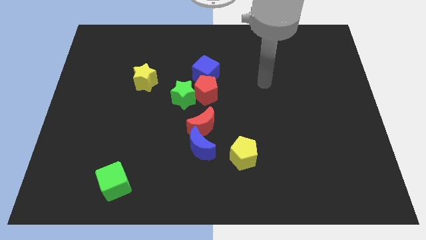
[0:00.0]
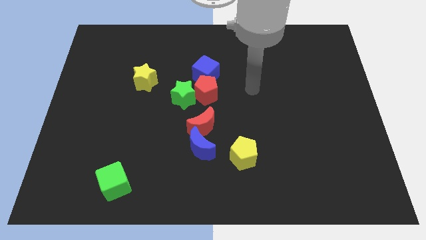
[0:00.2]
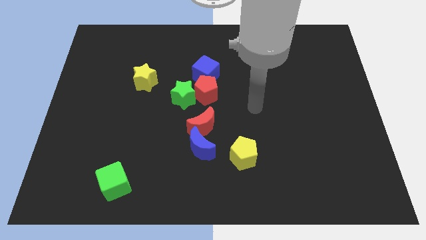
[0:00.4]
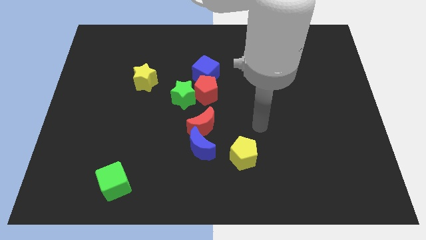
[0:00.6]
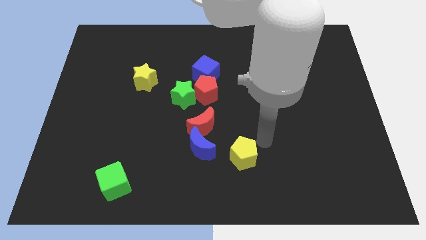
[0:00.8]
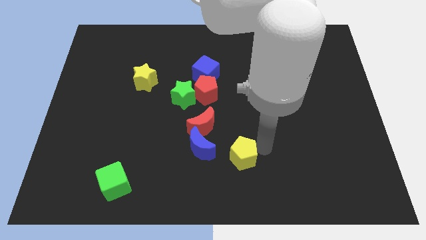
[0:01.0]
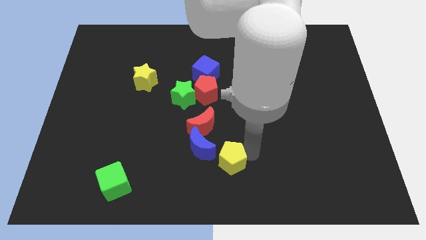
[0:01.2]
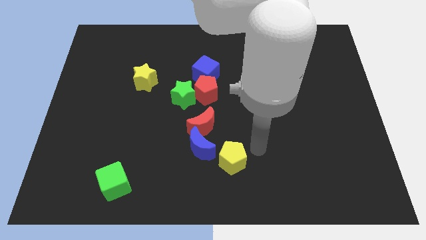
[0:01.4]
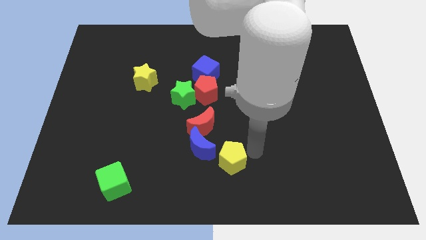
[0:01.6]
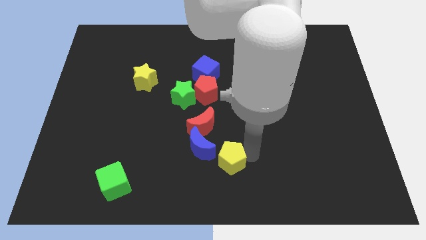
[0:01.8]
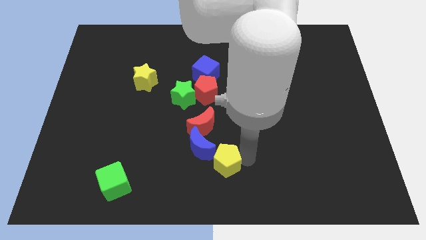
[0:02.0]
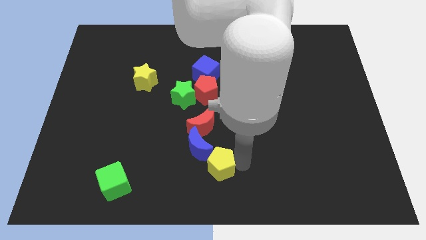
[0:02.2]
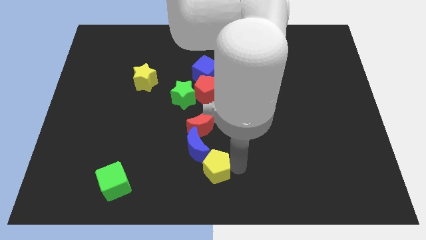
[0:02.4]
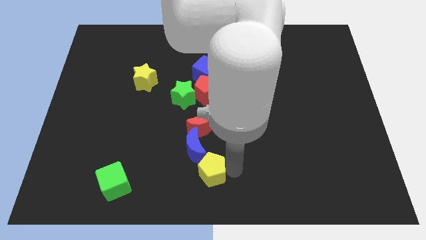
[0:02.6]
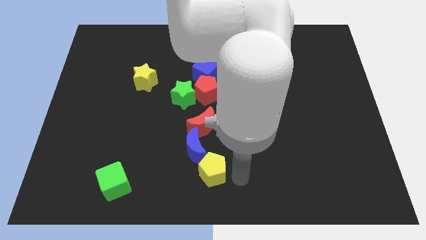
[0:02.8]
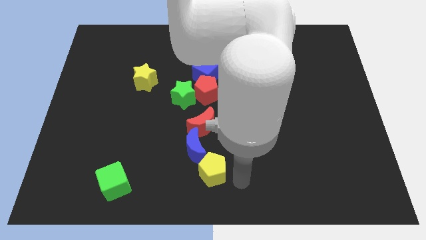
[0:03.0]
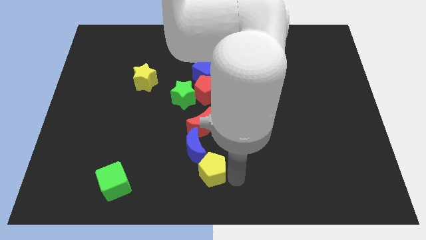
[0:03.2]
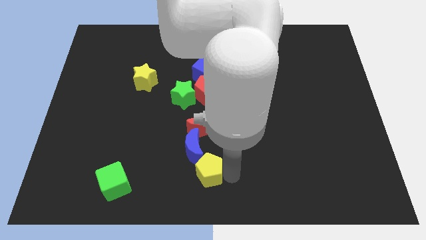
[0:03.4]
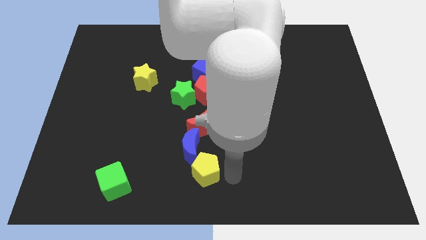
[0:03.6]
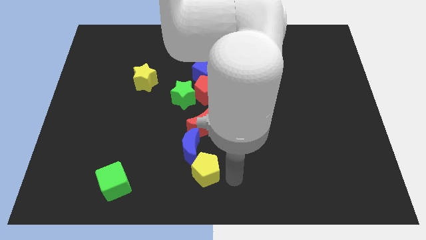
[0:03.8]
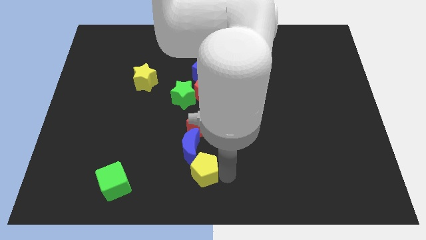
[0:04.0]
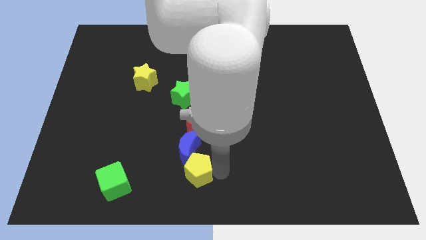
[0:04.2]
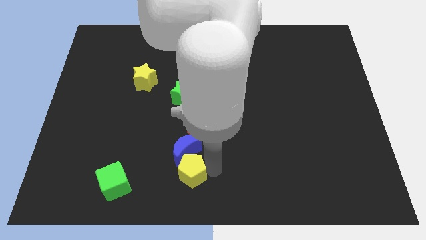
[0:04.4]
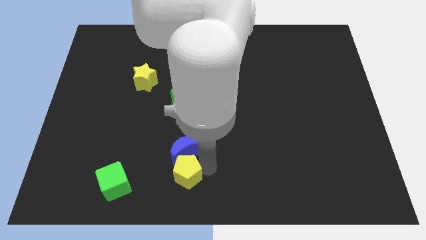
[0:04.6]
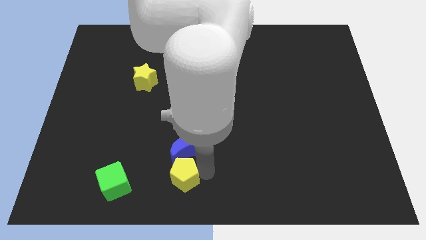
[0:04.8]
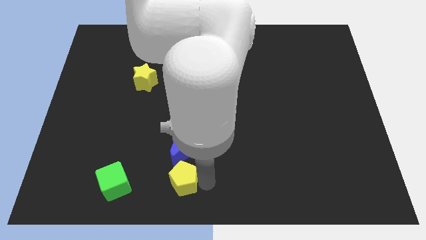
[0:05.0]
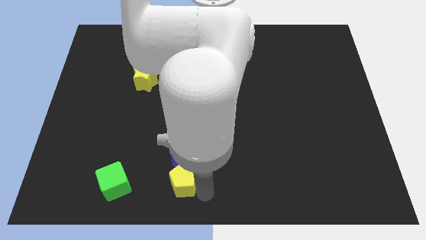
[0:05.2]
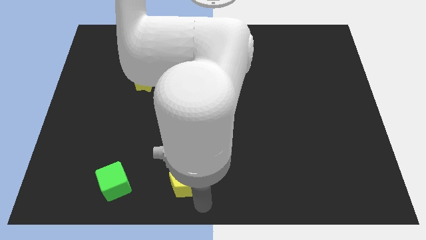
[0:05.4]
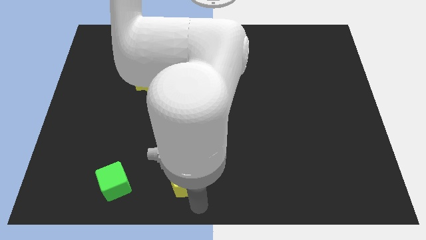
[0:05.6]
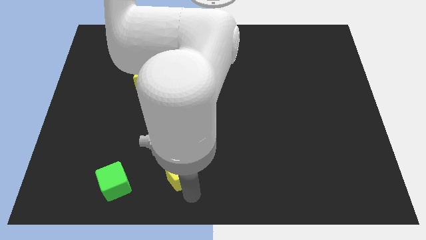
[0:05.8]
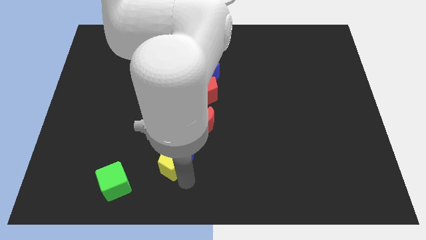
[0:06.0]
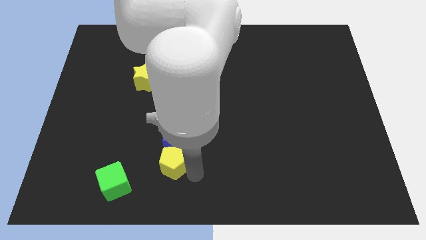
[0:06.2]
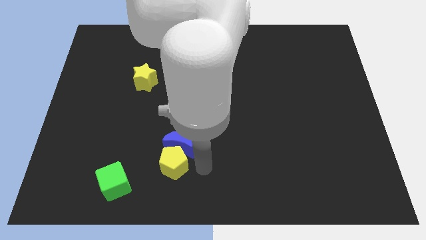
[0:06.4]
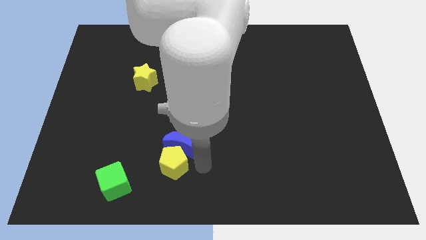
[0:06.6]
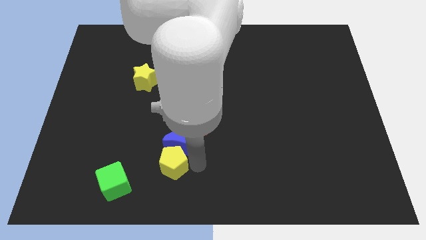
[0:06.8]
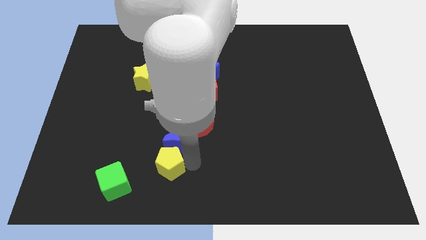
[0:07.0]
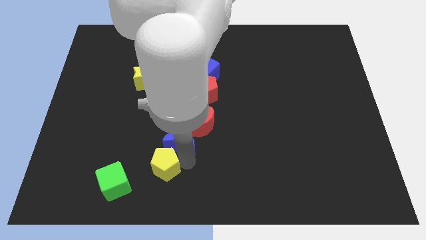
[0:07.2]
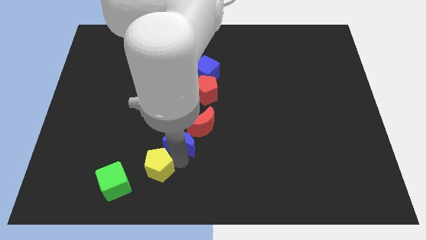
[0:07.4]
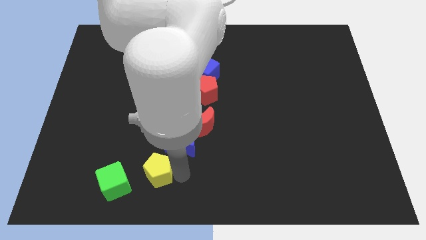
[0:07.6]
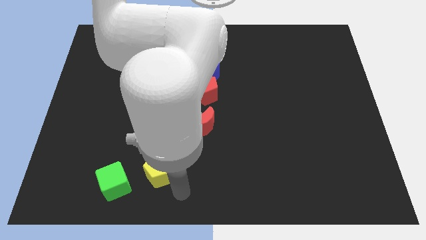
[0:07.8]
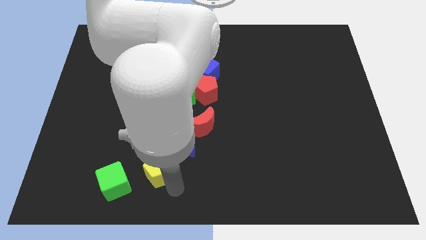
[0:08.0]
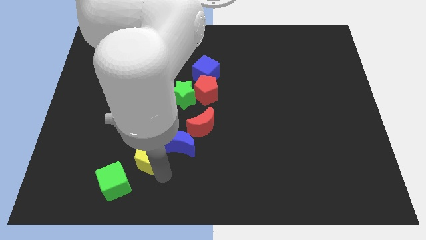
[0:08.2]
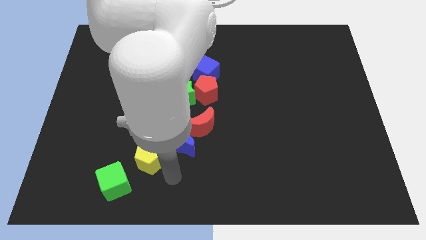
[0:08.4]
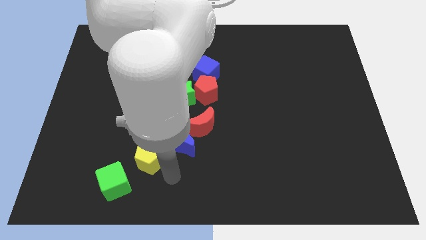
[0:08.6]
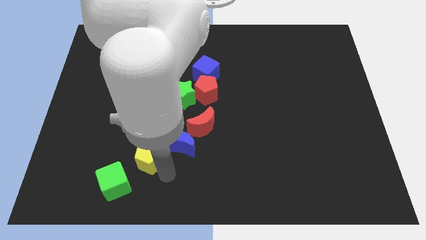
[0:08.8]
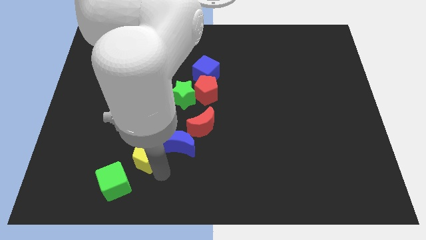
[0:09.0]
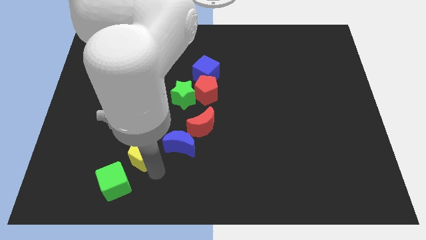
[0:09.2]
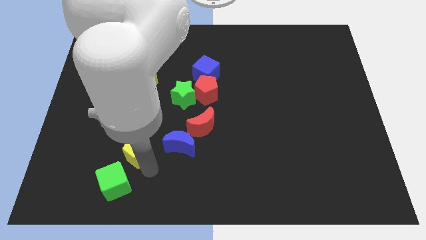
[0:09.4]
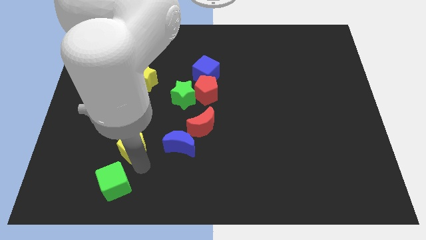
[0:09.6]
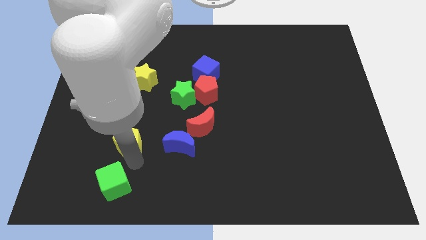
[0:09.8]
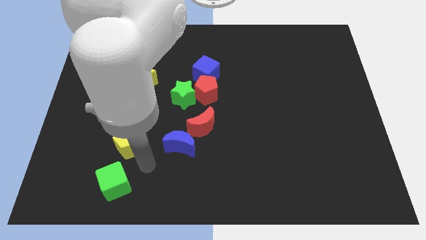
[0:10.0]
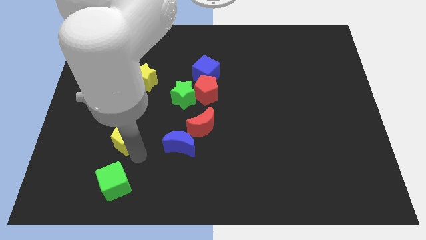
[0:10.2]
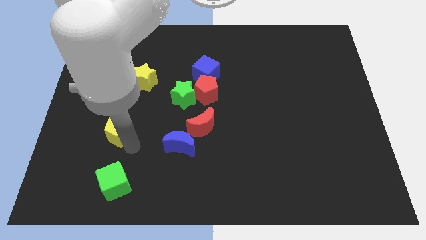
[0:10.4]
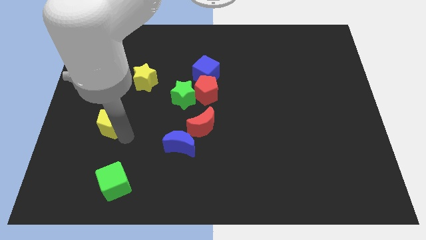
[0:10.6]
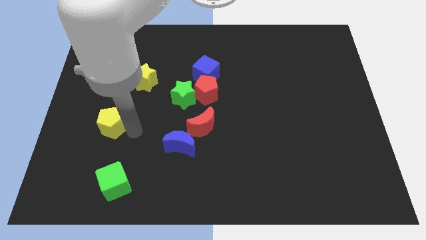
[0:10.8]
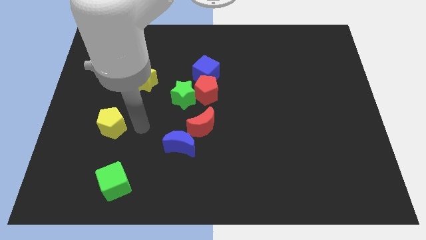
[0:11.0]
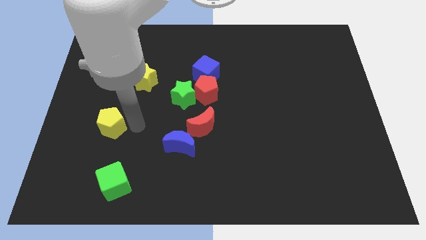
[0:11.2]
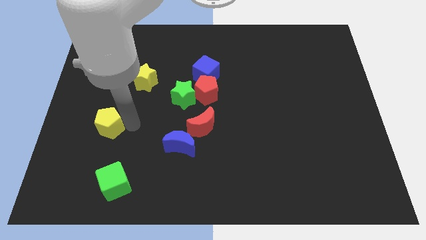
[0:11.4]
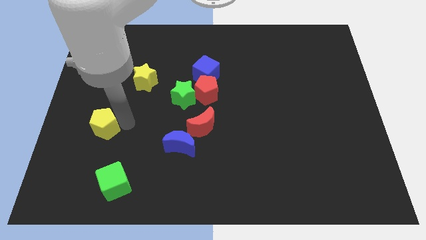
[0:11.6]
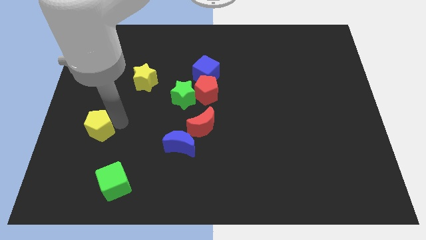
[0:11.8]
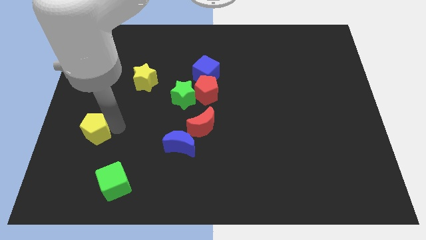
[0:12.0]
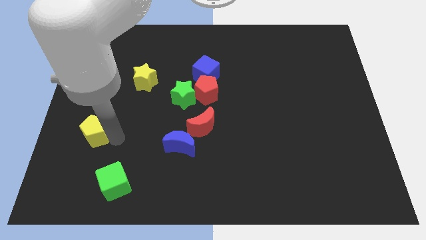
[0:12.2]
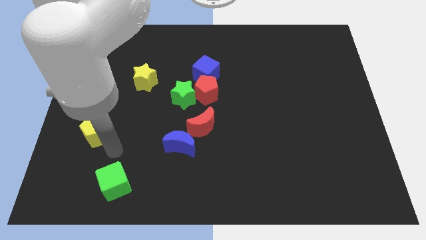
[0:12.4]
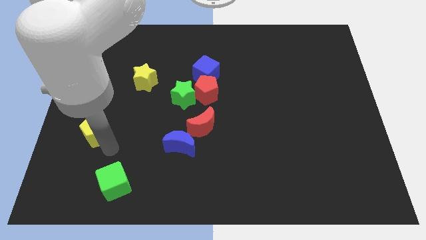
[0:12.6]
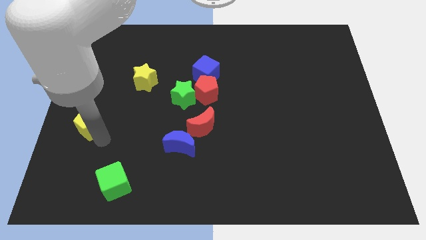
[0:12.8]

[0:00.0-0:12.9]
move the yellow pentagon to the left side
